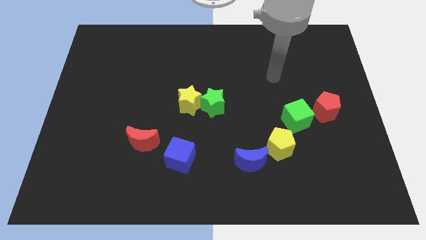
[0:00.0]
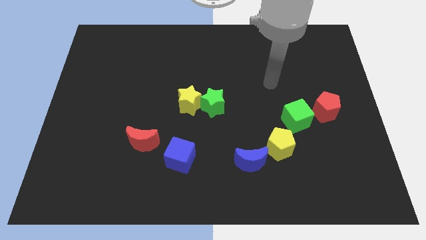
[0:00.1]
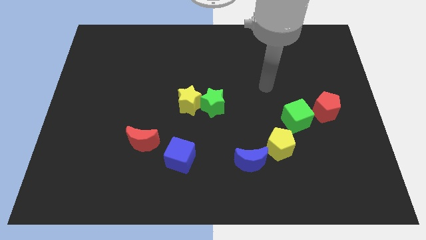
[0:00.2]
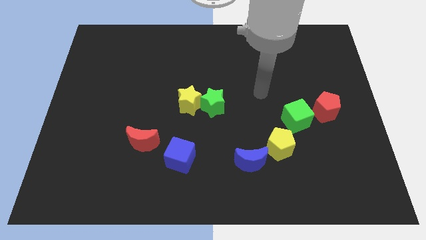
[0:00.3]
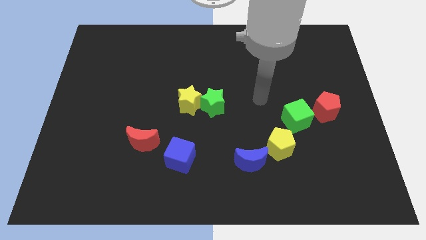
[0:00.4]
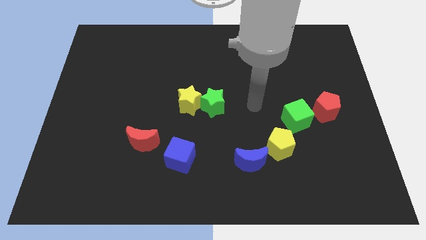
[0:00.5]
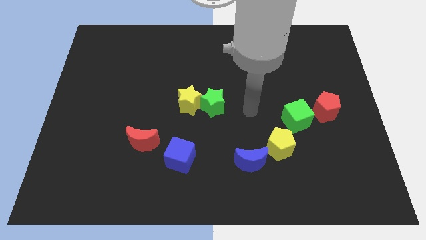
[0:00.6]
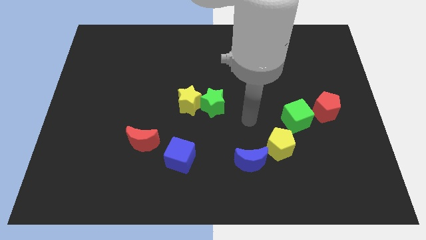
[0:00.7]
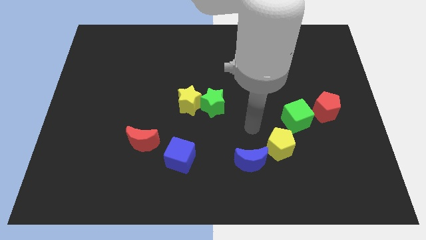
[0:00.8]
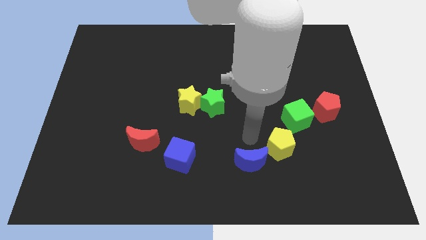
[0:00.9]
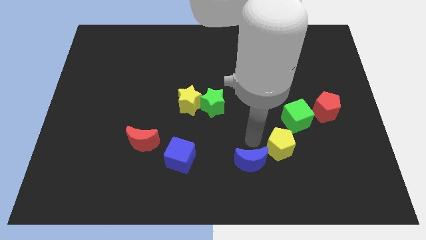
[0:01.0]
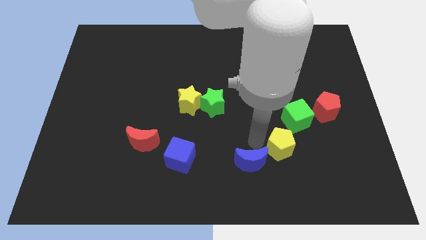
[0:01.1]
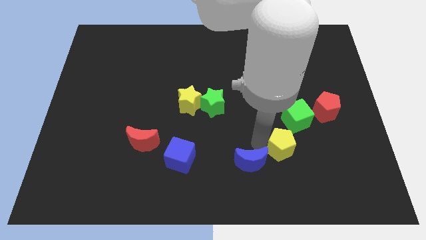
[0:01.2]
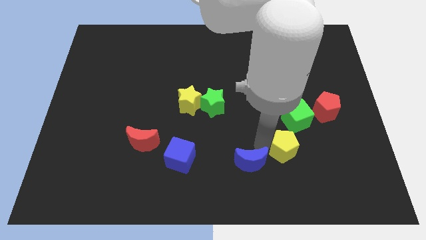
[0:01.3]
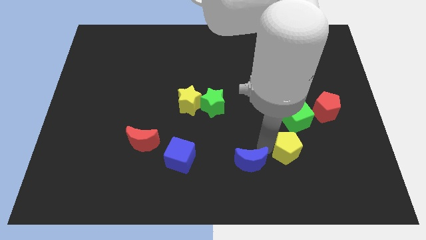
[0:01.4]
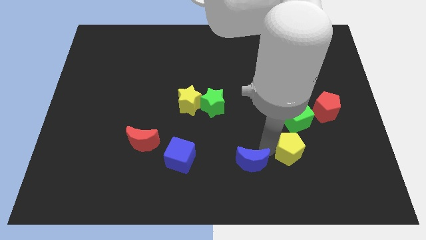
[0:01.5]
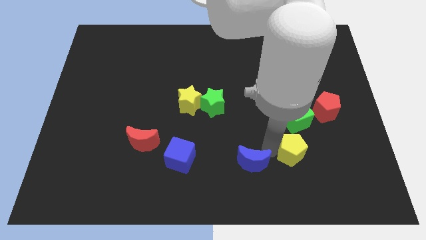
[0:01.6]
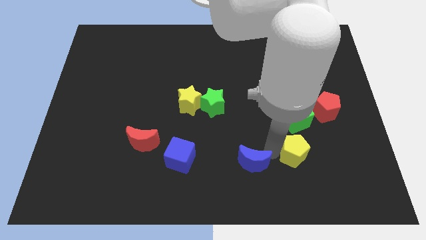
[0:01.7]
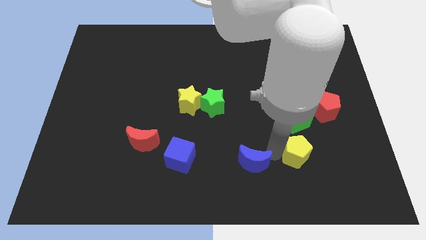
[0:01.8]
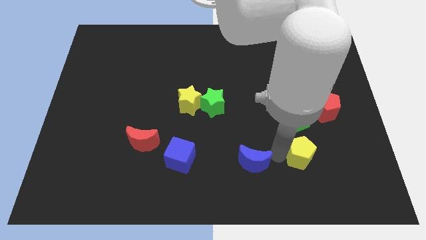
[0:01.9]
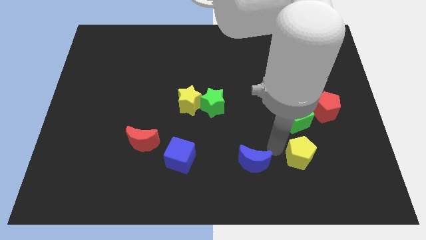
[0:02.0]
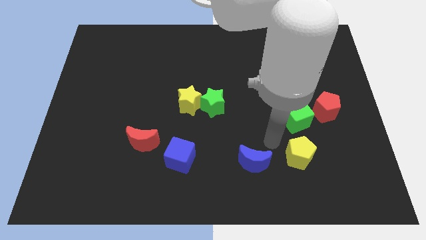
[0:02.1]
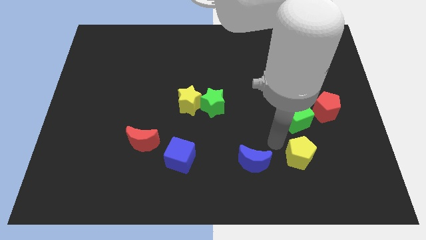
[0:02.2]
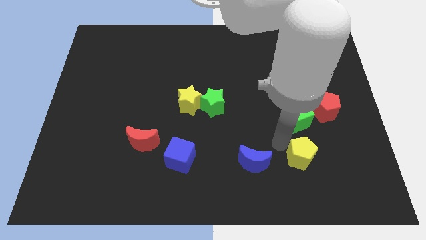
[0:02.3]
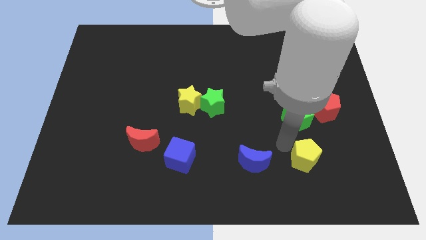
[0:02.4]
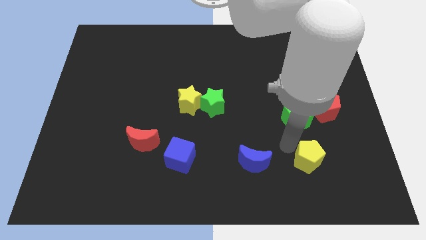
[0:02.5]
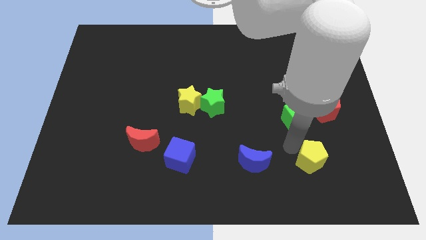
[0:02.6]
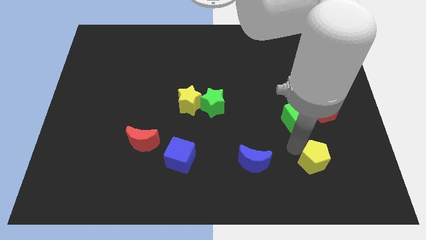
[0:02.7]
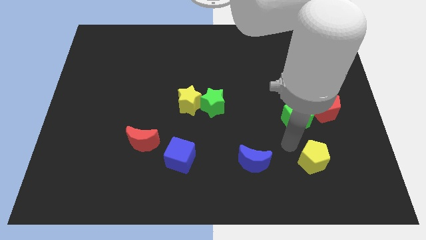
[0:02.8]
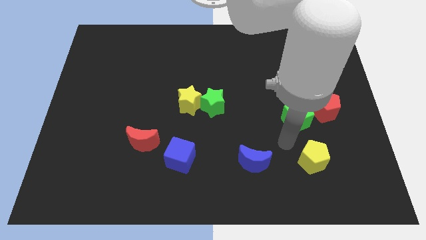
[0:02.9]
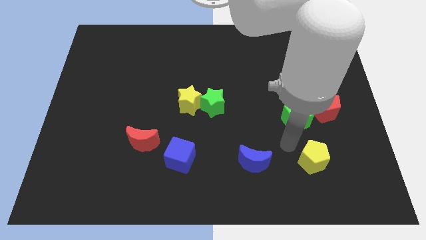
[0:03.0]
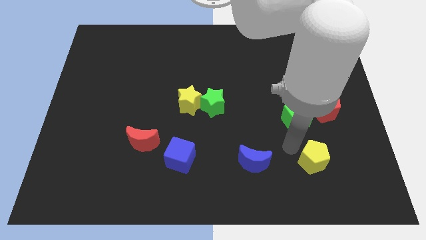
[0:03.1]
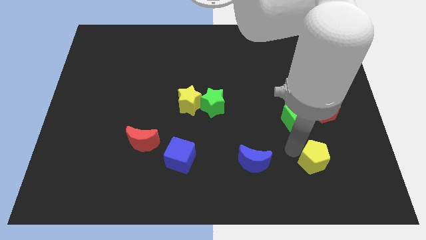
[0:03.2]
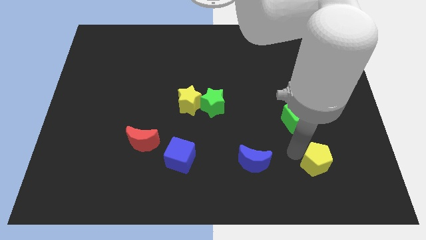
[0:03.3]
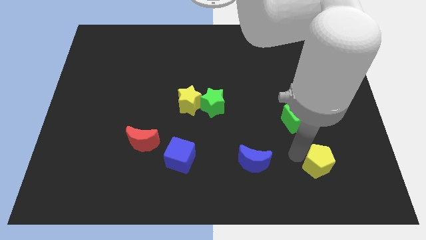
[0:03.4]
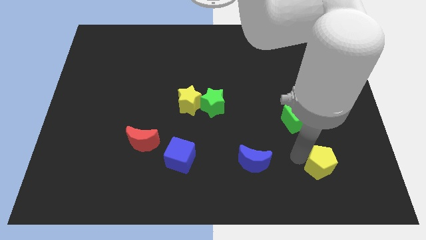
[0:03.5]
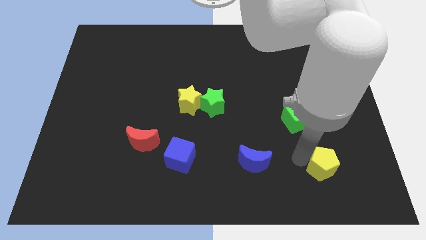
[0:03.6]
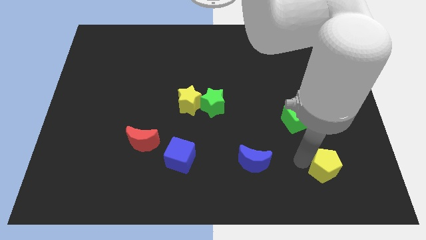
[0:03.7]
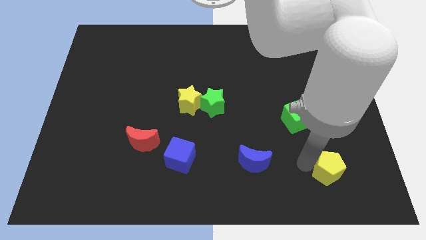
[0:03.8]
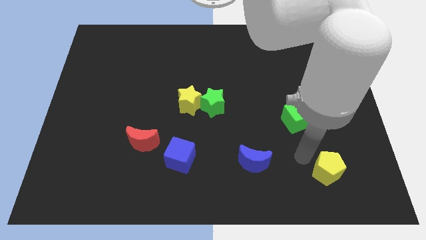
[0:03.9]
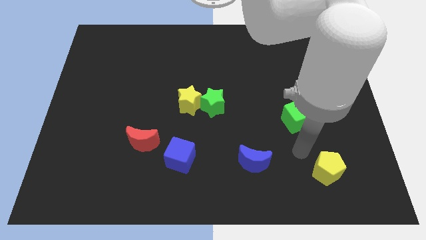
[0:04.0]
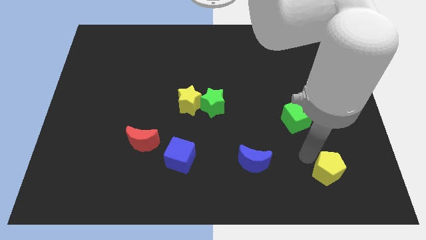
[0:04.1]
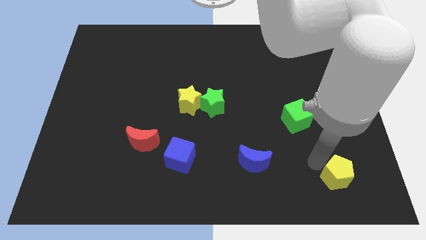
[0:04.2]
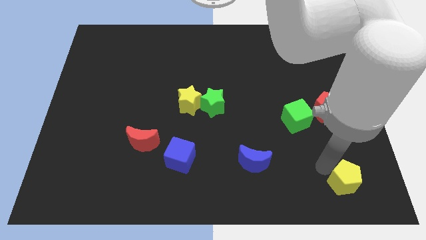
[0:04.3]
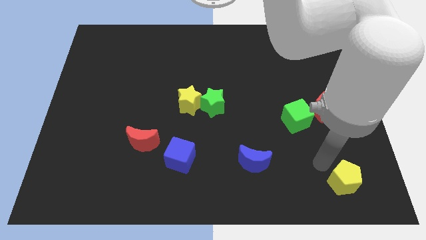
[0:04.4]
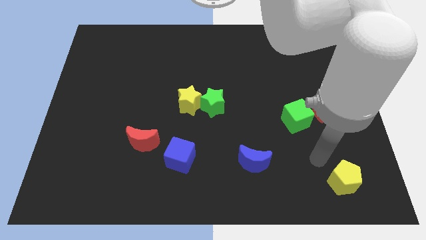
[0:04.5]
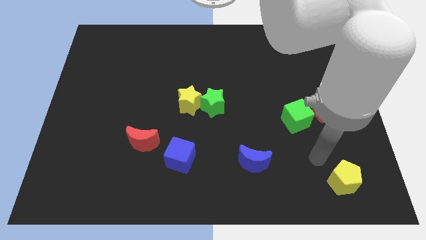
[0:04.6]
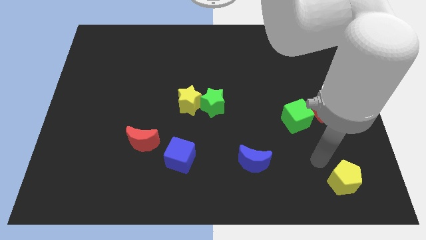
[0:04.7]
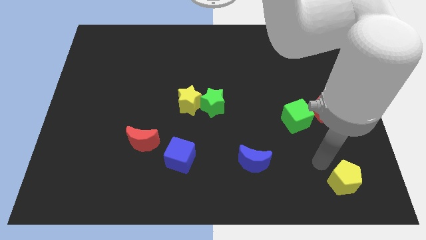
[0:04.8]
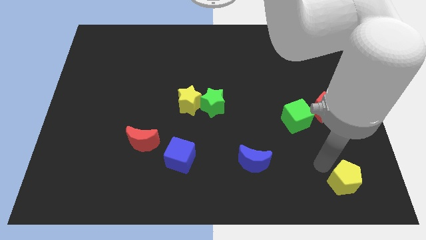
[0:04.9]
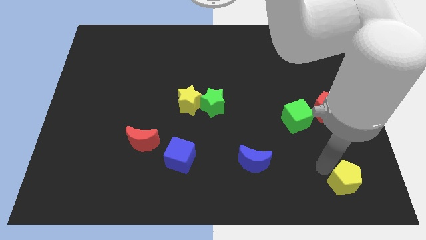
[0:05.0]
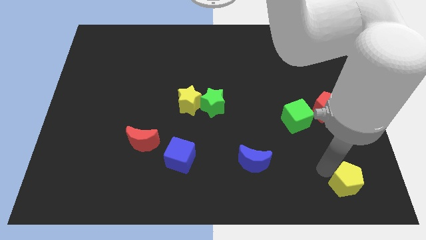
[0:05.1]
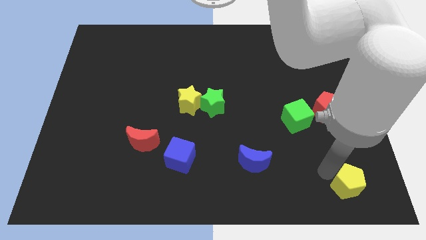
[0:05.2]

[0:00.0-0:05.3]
slide the yellow pentagon to the bottom right

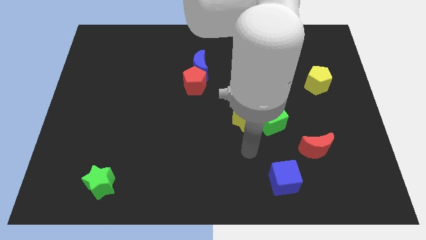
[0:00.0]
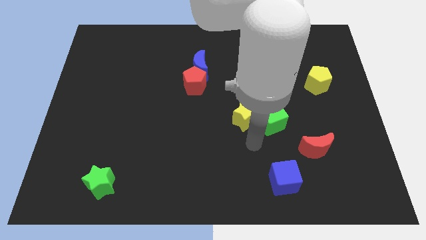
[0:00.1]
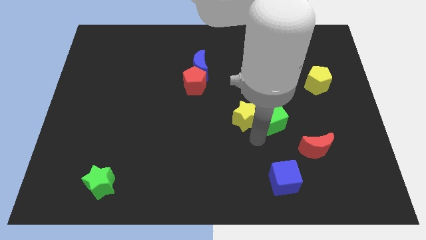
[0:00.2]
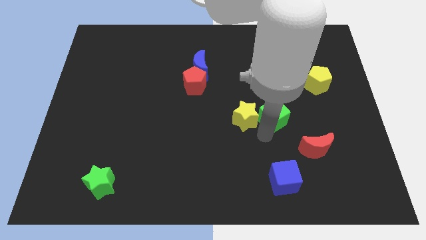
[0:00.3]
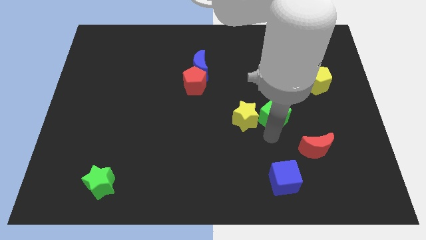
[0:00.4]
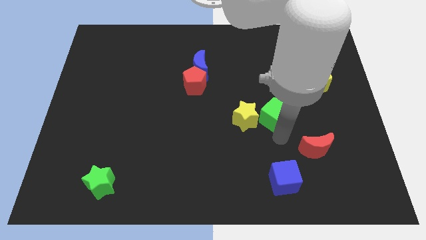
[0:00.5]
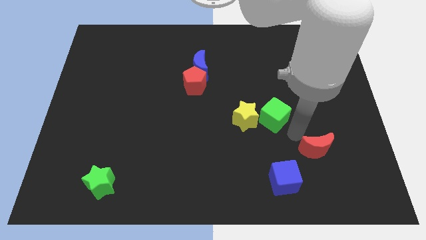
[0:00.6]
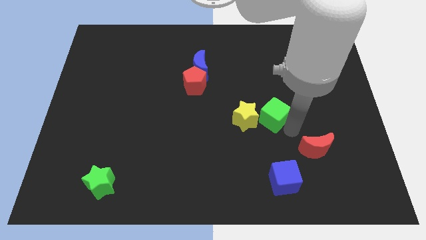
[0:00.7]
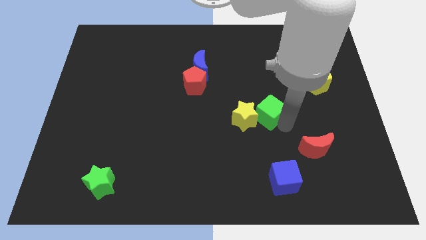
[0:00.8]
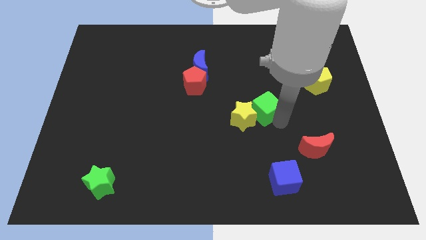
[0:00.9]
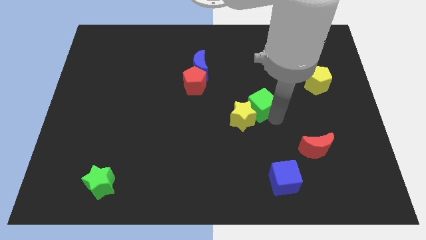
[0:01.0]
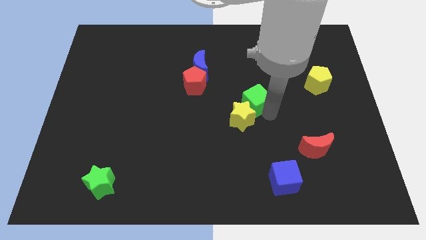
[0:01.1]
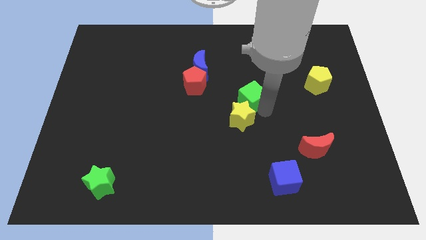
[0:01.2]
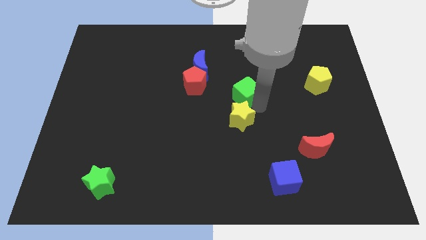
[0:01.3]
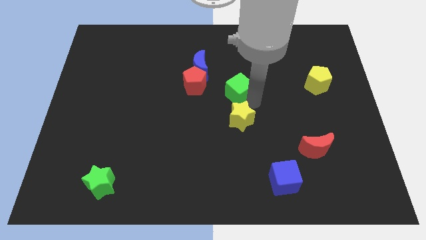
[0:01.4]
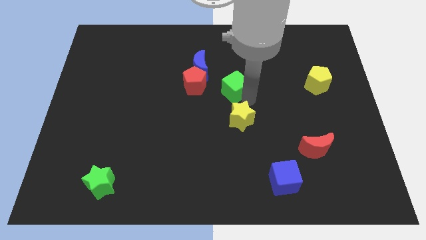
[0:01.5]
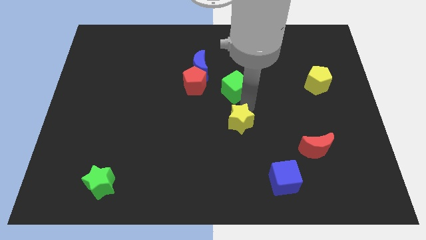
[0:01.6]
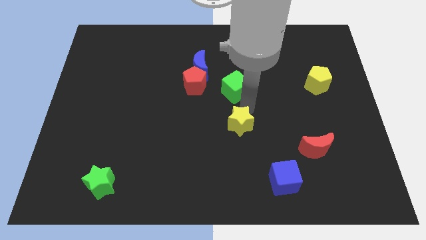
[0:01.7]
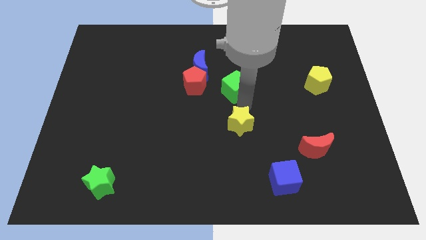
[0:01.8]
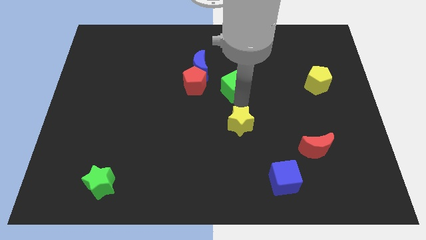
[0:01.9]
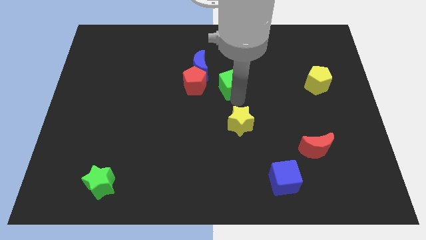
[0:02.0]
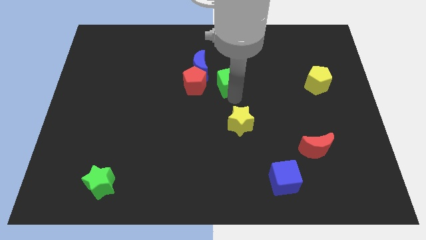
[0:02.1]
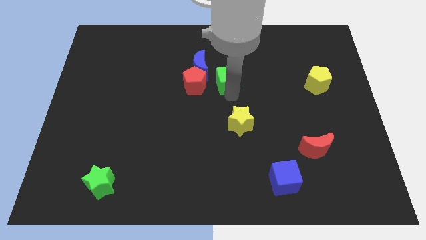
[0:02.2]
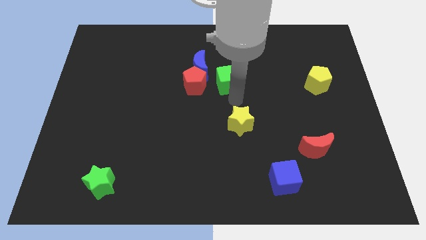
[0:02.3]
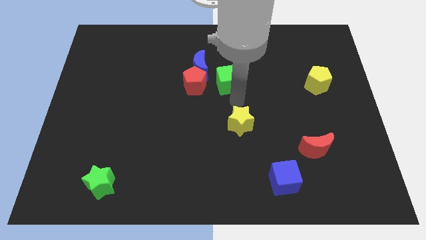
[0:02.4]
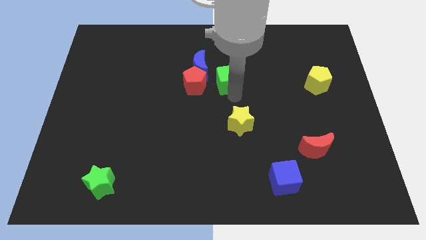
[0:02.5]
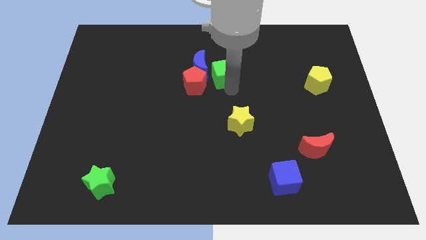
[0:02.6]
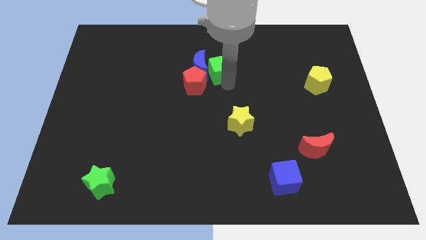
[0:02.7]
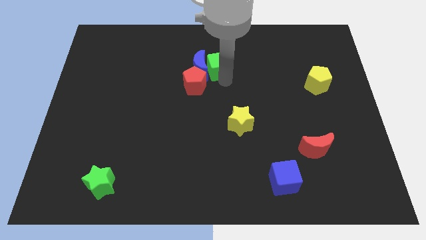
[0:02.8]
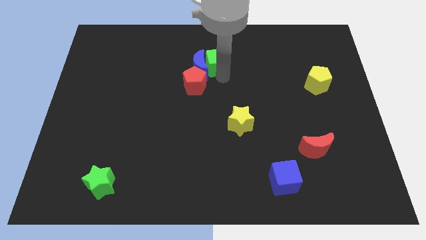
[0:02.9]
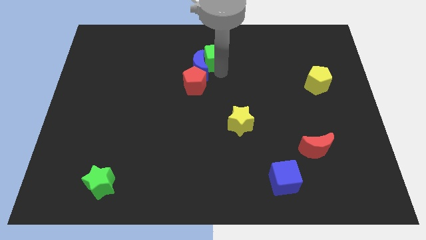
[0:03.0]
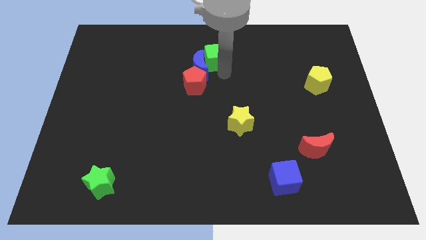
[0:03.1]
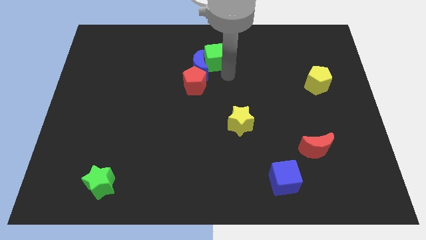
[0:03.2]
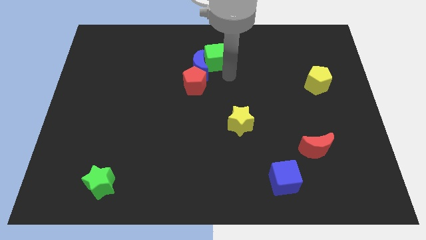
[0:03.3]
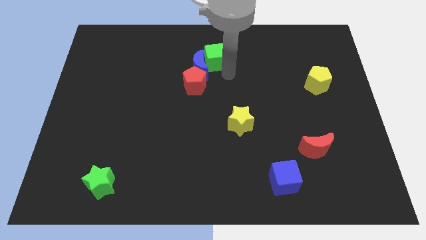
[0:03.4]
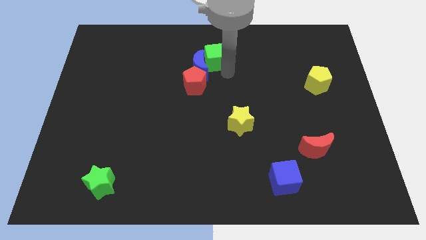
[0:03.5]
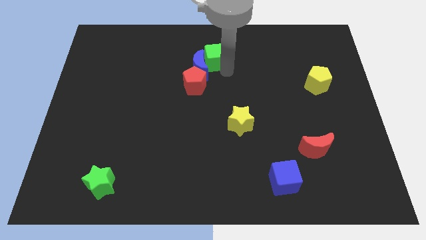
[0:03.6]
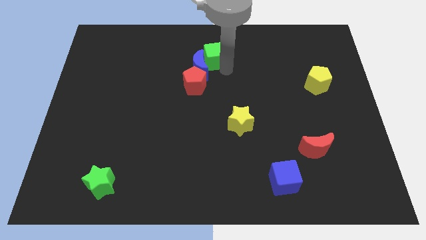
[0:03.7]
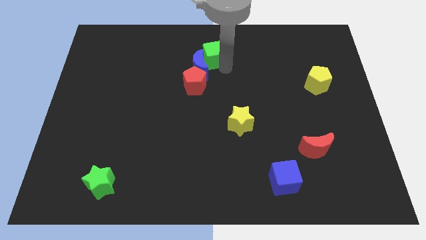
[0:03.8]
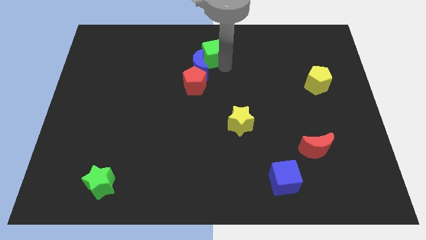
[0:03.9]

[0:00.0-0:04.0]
push the green cube to the top side
